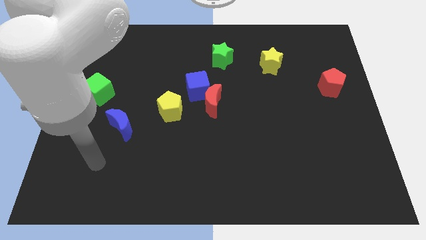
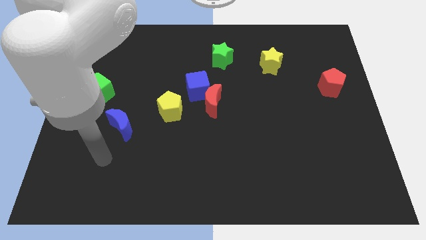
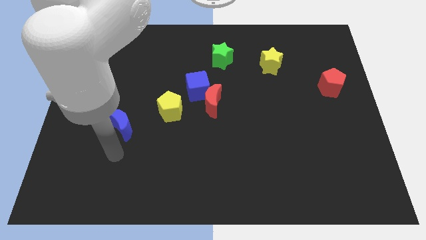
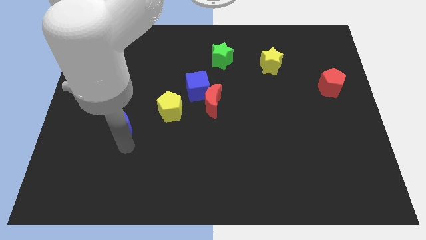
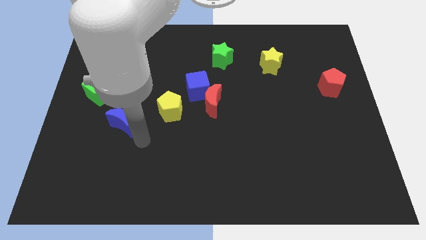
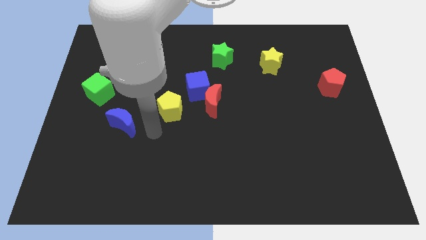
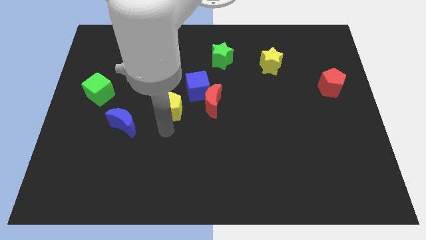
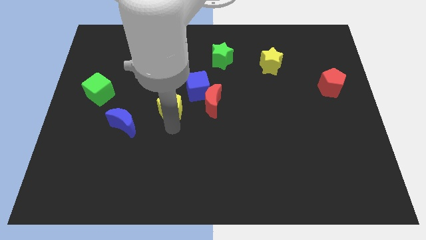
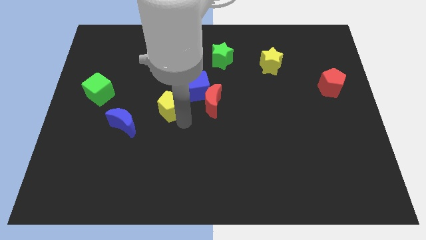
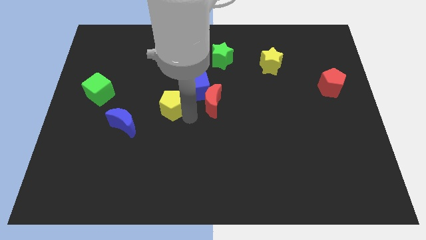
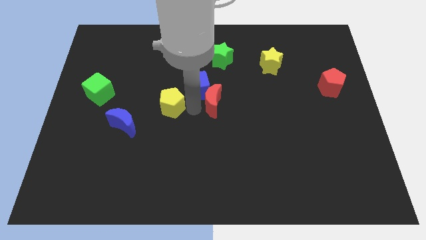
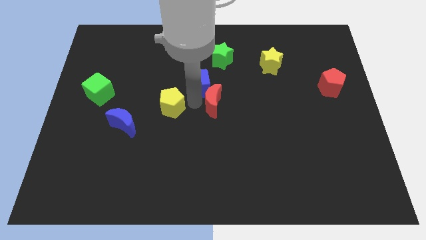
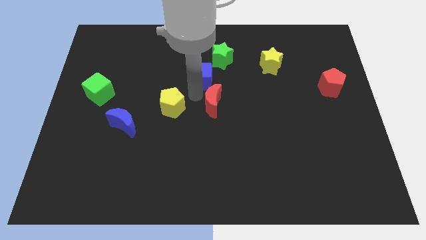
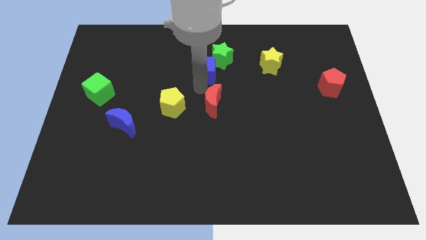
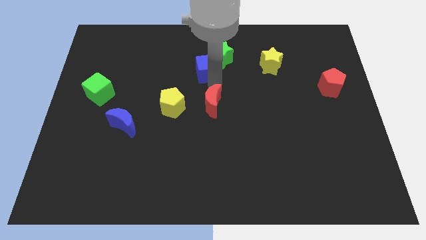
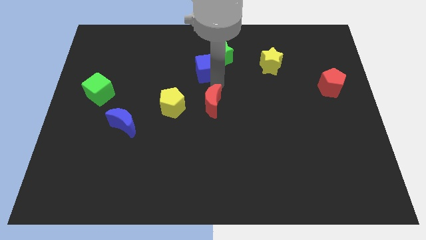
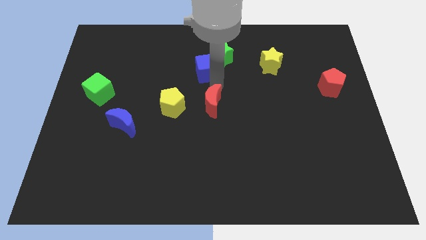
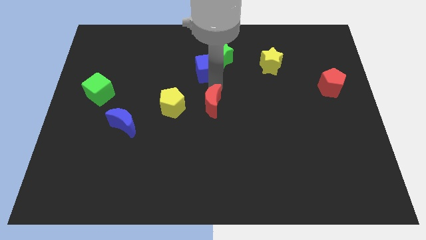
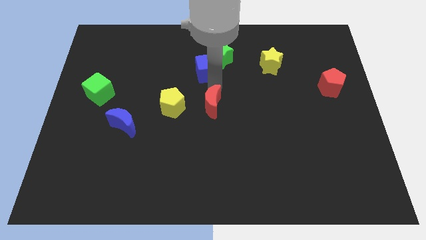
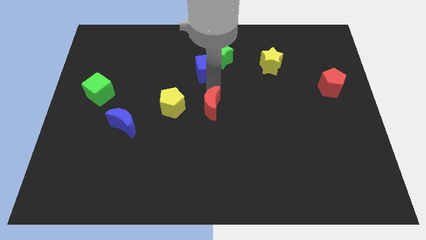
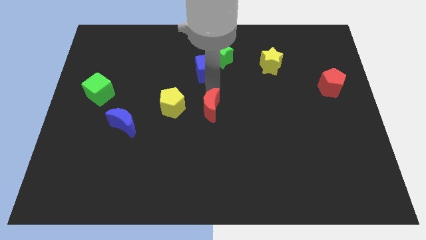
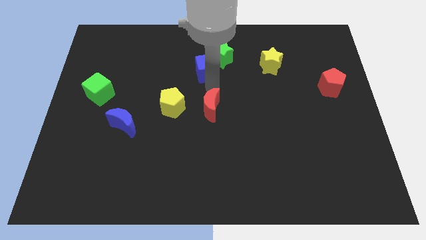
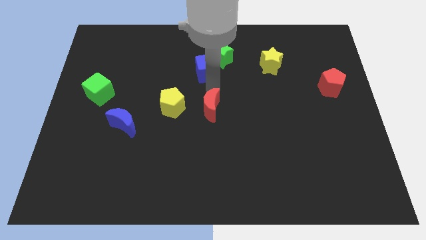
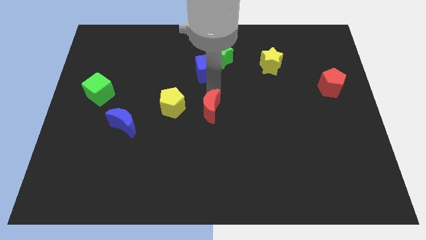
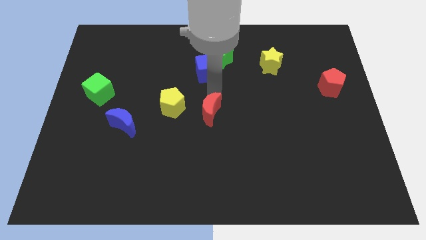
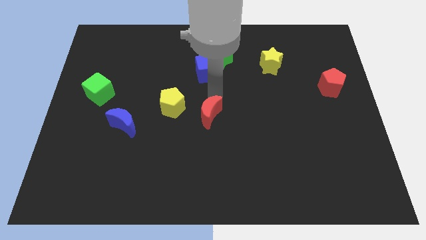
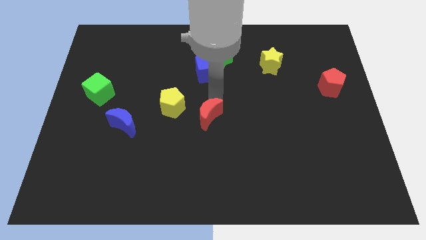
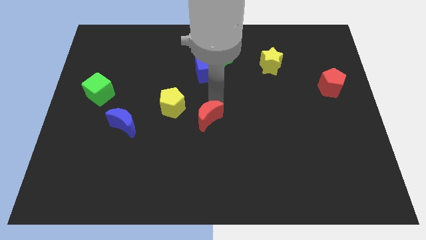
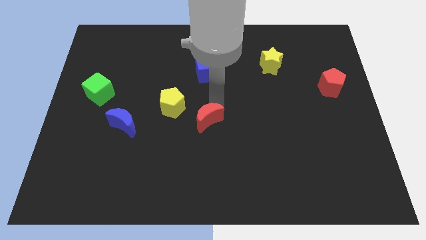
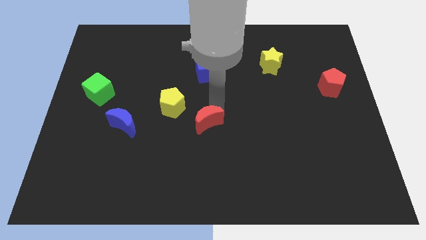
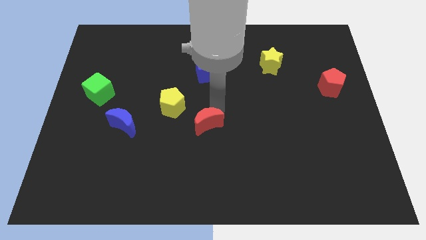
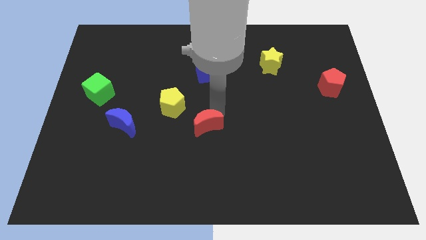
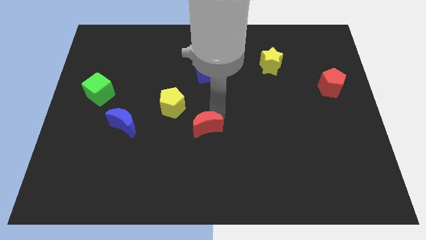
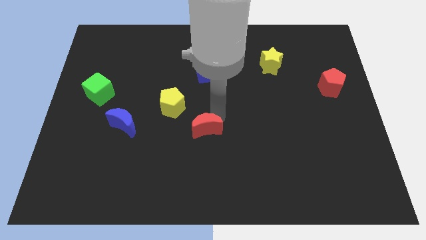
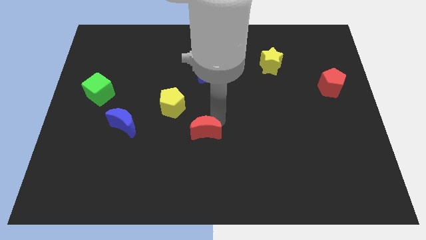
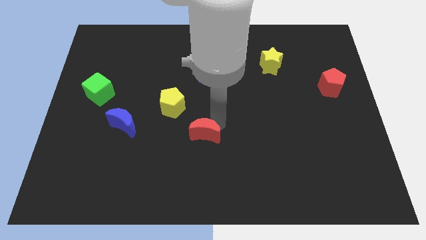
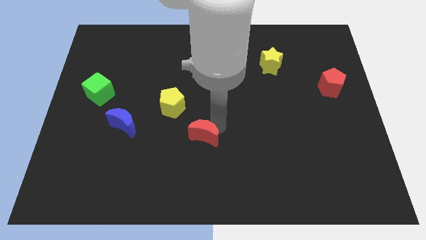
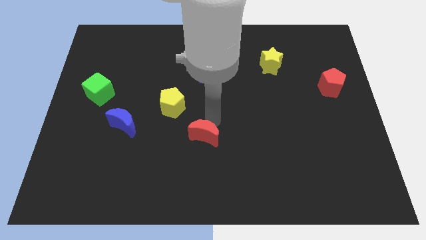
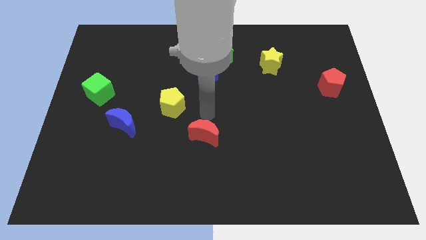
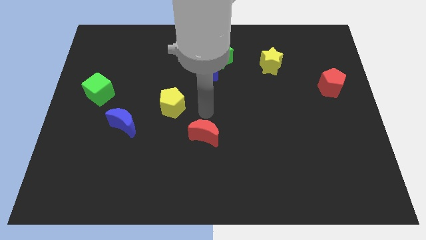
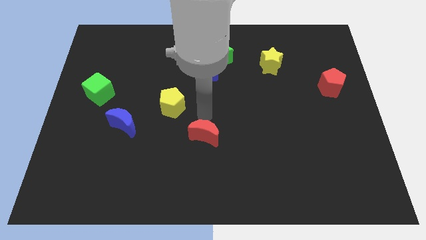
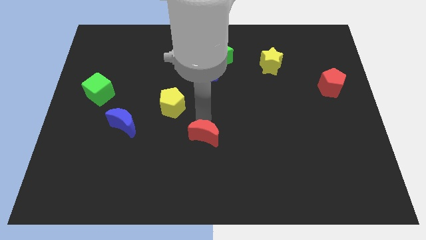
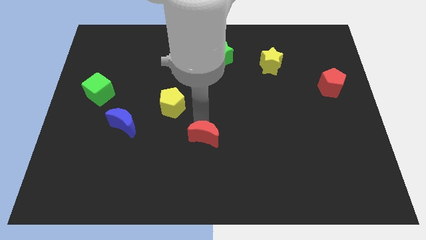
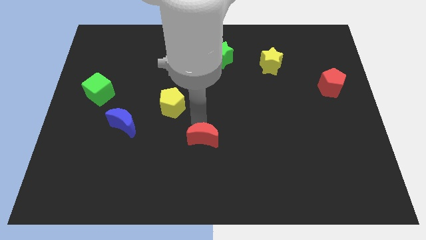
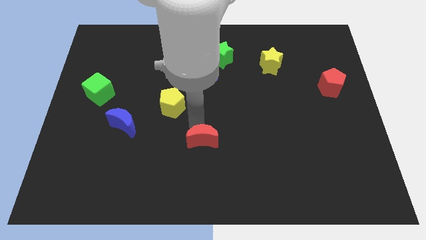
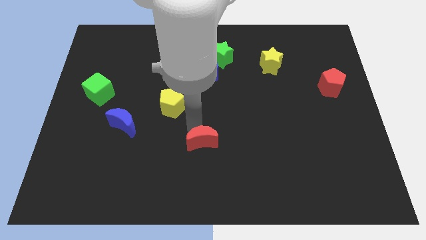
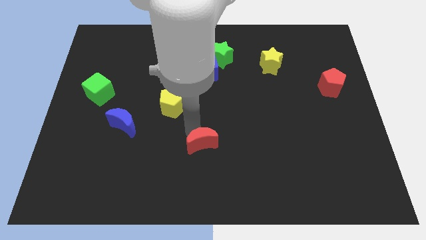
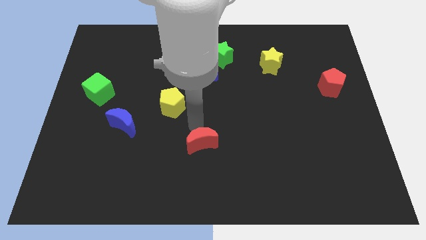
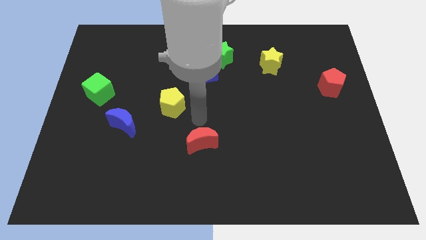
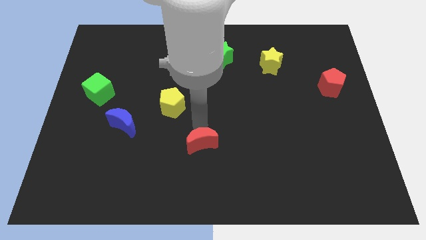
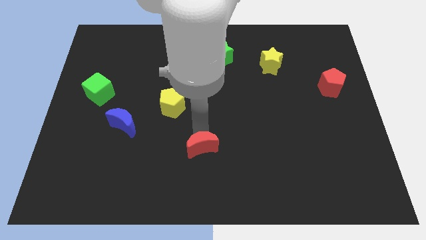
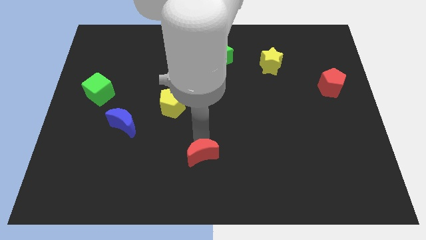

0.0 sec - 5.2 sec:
move the red moon to the bottom side

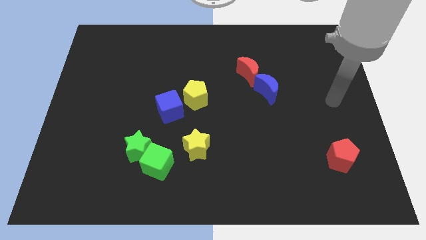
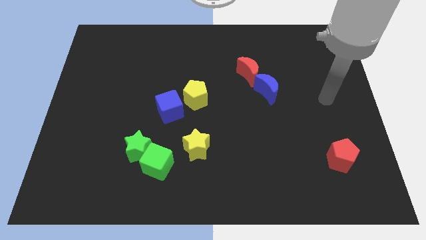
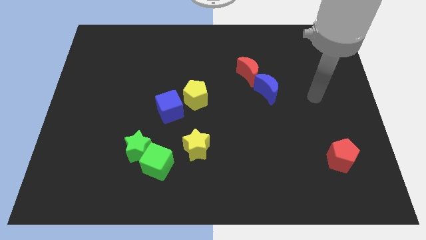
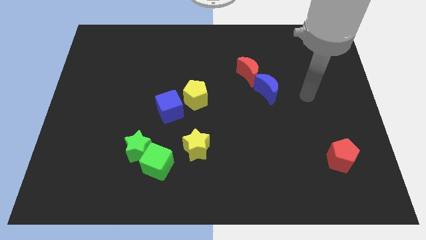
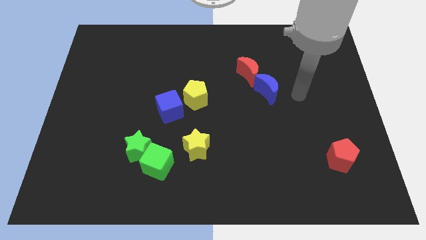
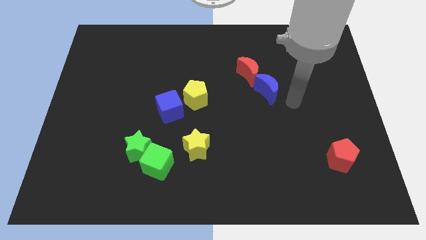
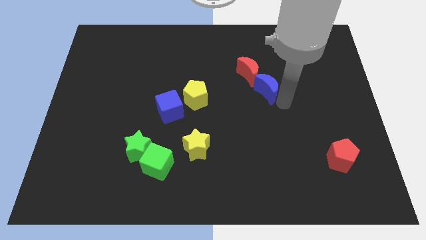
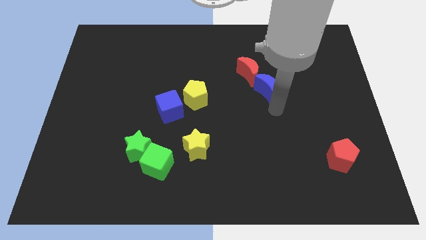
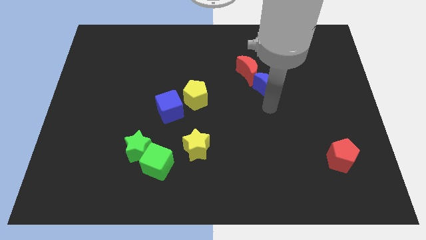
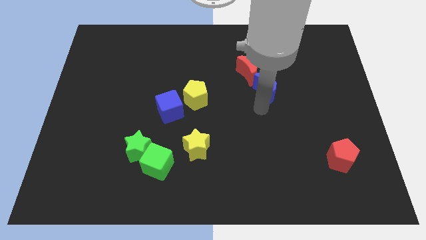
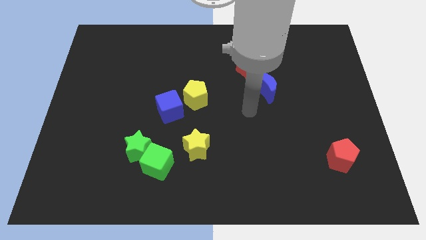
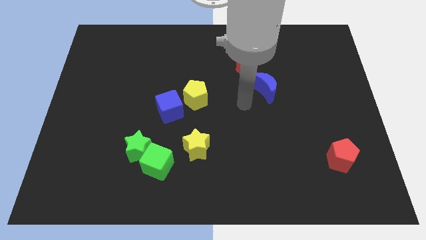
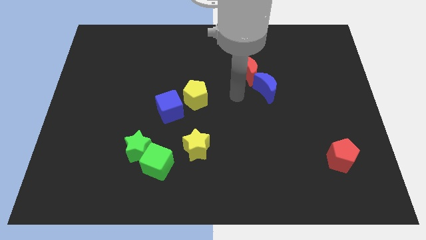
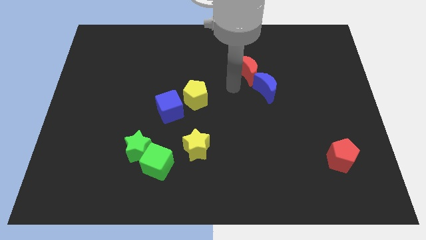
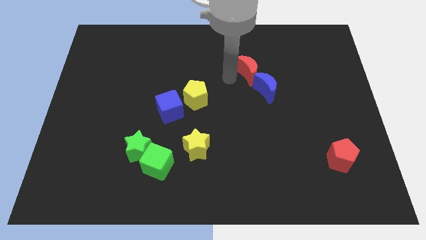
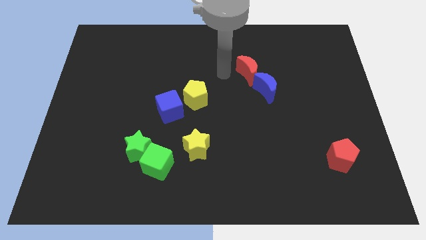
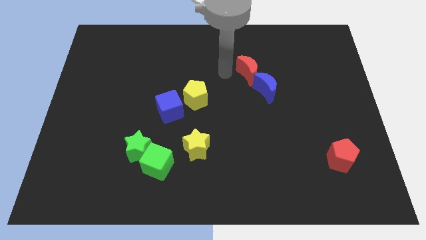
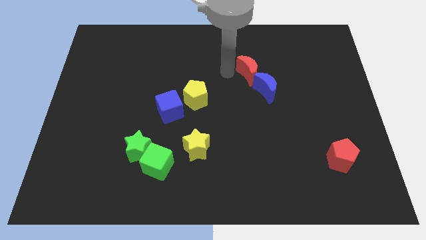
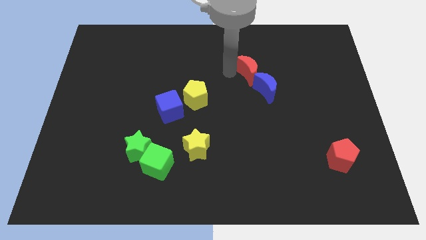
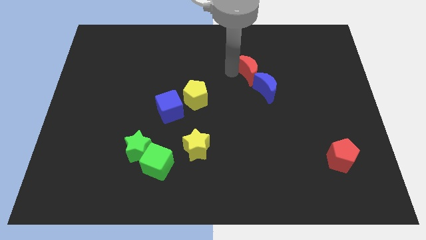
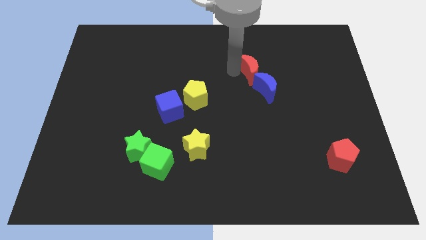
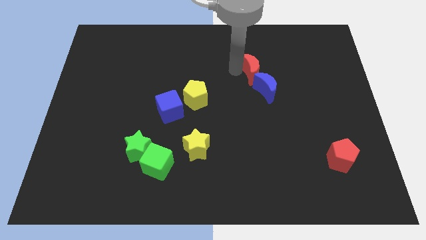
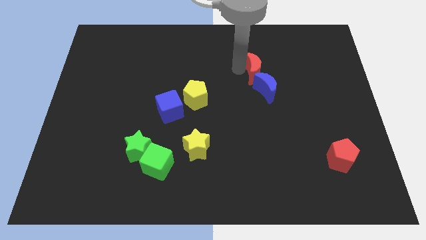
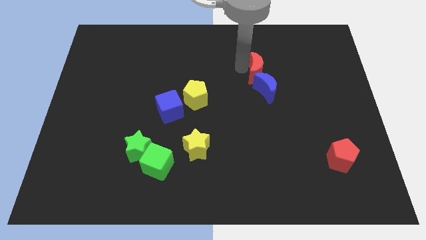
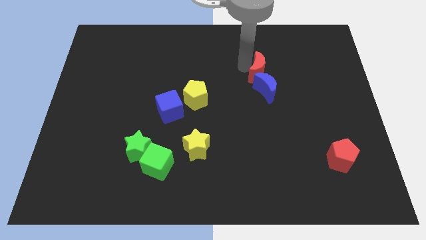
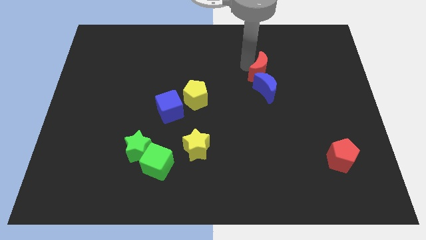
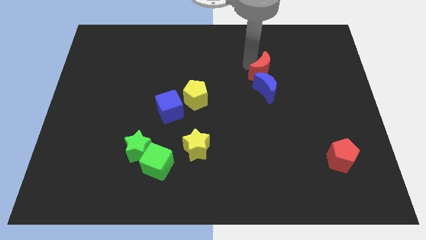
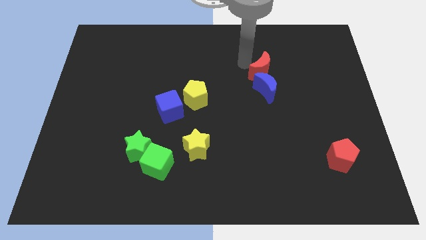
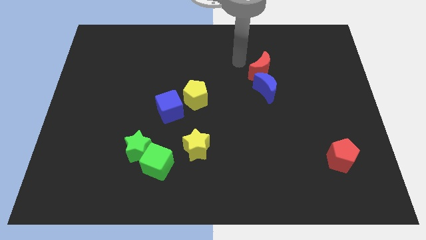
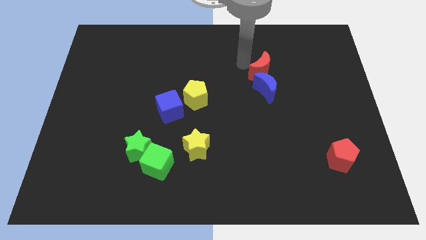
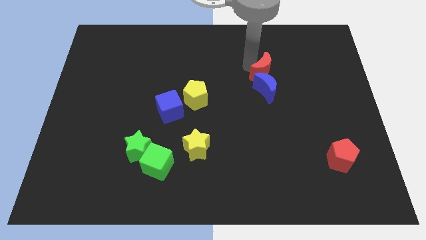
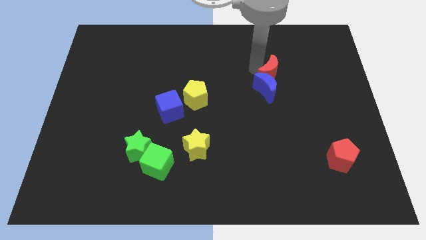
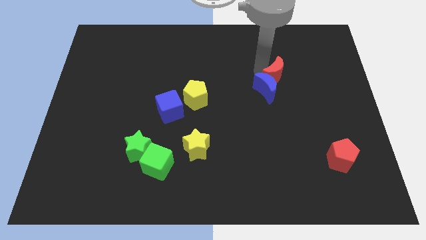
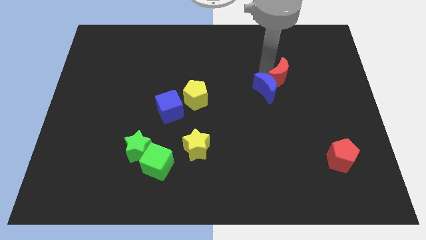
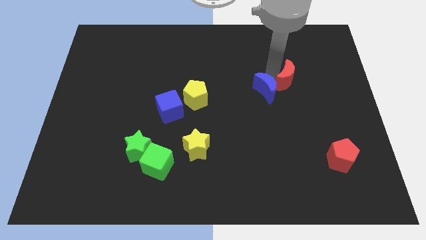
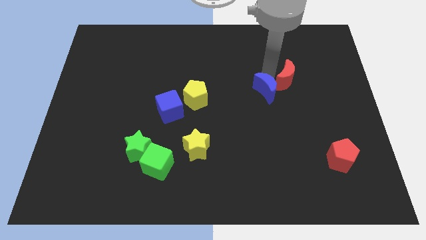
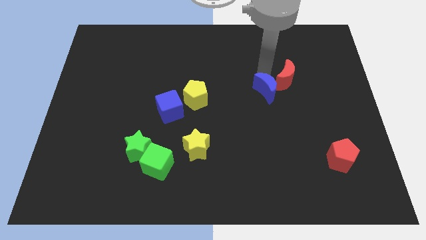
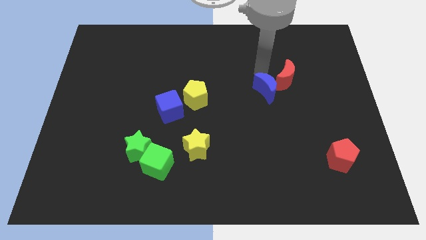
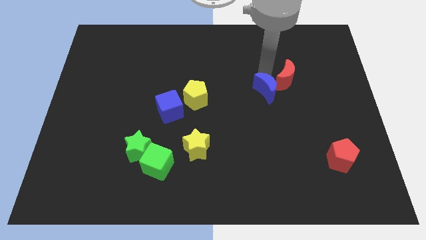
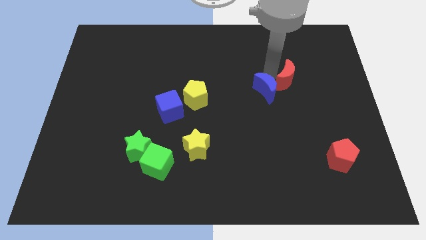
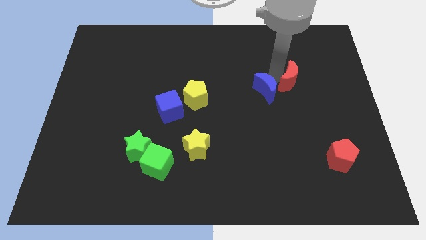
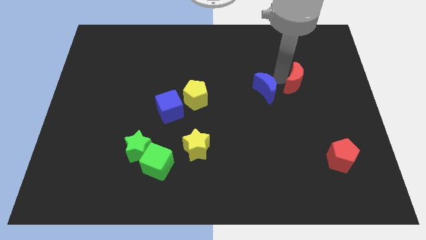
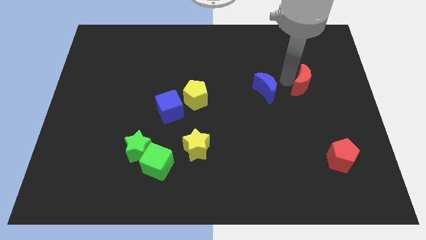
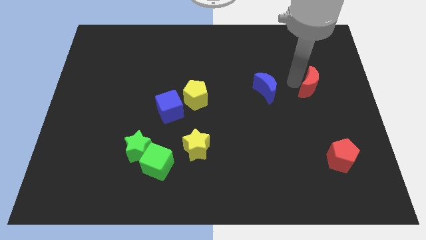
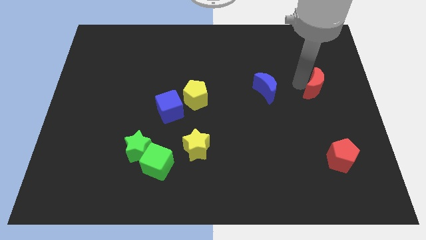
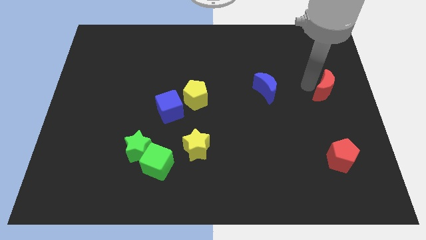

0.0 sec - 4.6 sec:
move the red moon to the right side
